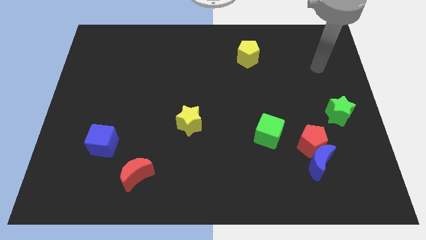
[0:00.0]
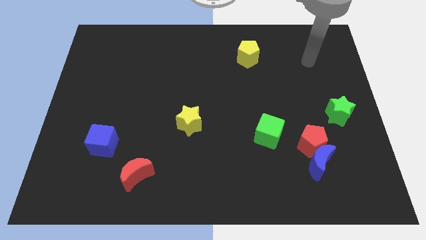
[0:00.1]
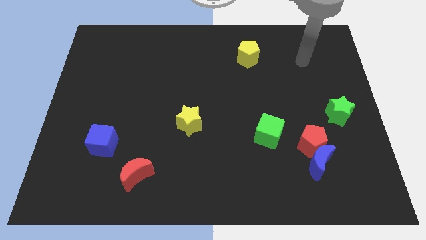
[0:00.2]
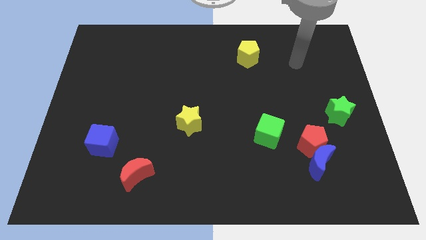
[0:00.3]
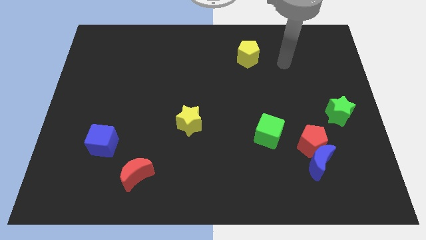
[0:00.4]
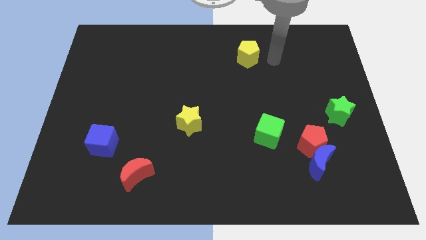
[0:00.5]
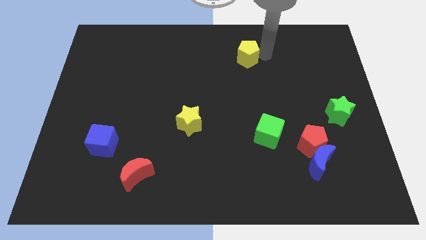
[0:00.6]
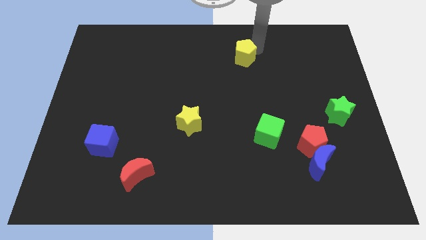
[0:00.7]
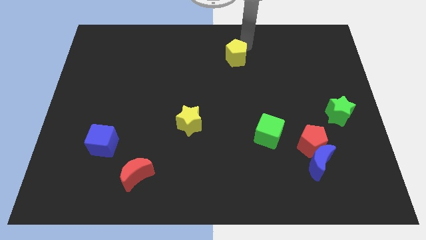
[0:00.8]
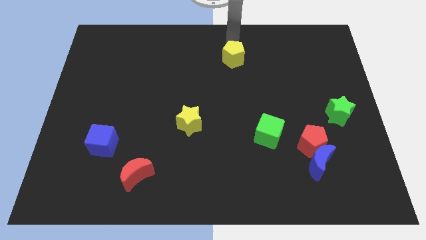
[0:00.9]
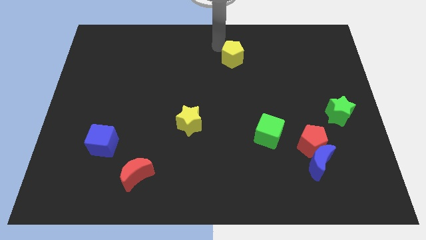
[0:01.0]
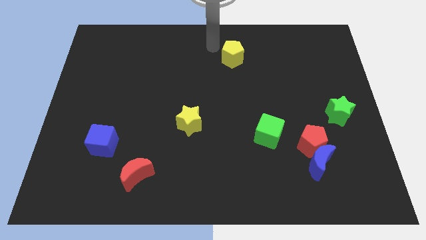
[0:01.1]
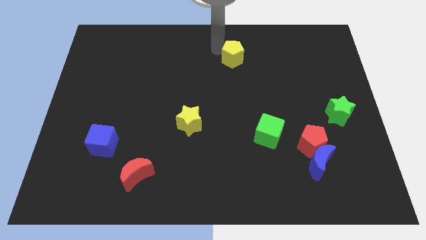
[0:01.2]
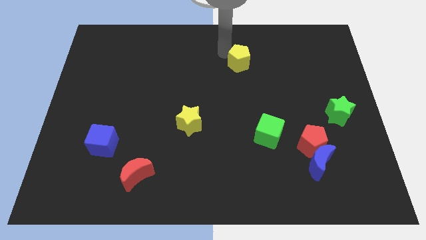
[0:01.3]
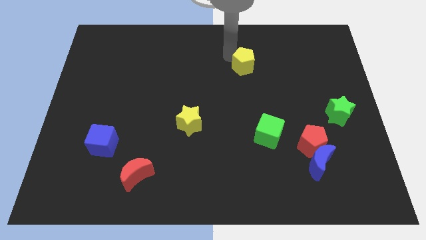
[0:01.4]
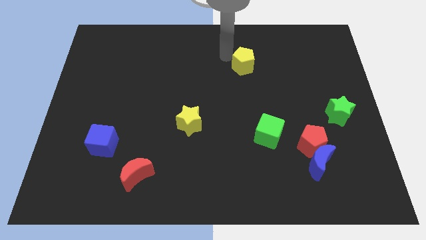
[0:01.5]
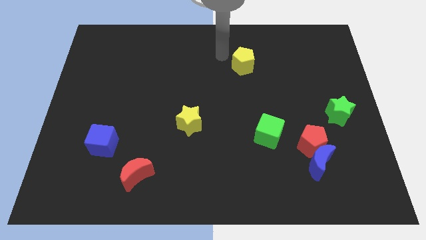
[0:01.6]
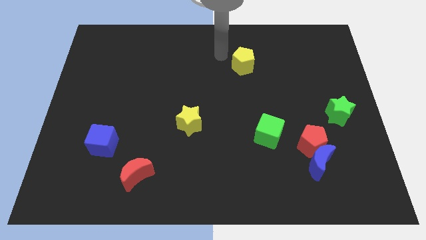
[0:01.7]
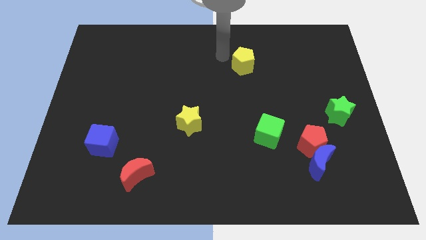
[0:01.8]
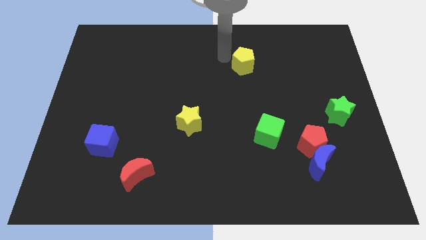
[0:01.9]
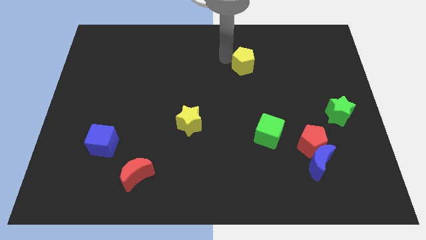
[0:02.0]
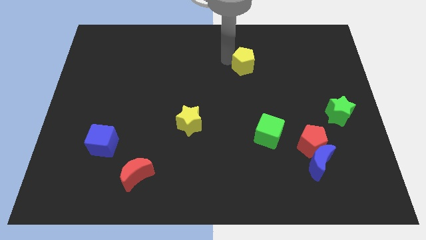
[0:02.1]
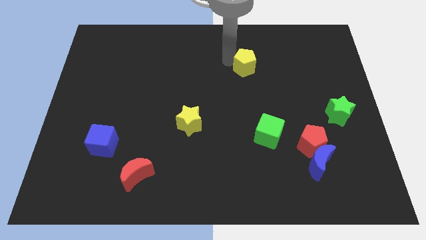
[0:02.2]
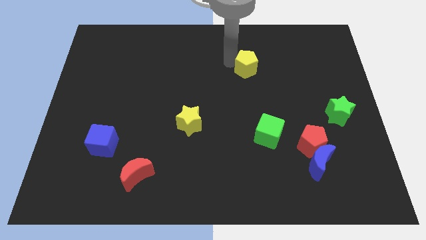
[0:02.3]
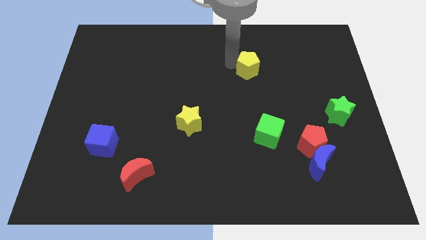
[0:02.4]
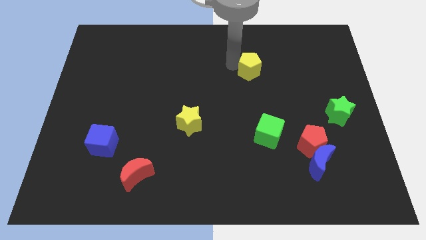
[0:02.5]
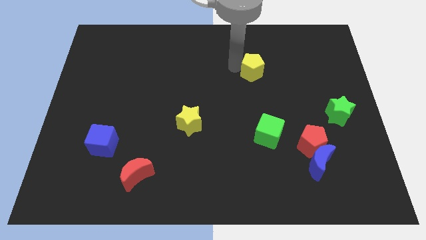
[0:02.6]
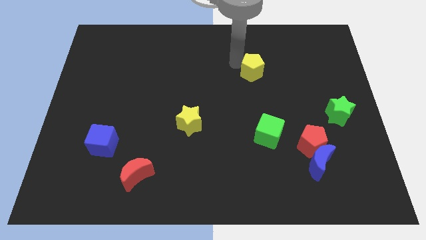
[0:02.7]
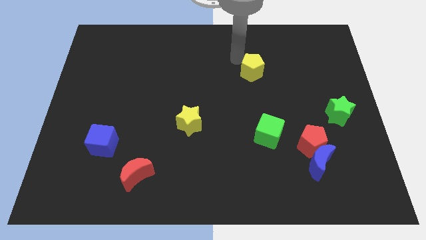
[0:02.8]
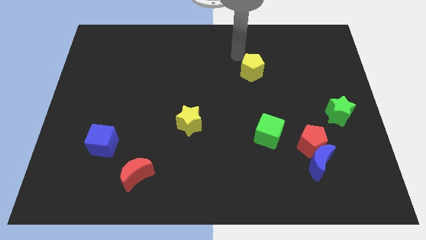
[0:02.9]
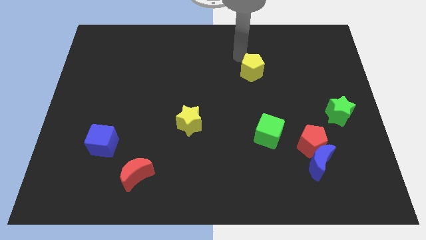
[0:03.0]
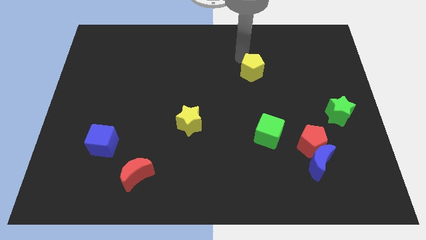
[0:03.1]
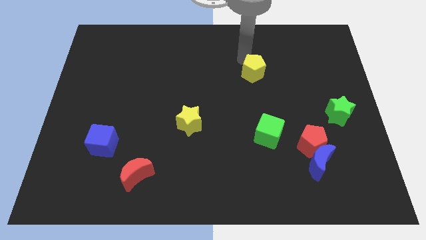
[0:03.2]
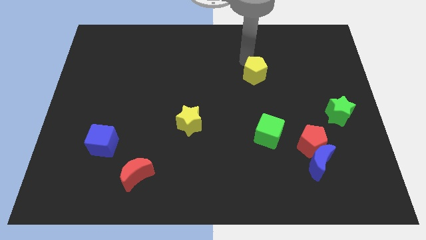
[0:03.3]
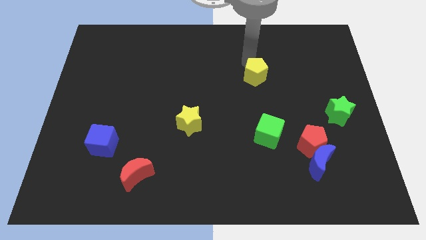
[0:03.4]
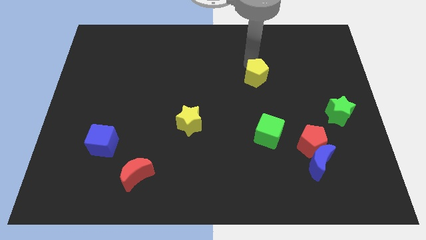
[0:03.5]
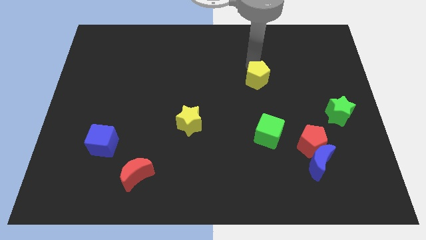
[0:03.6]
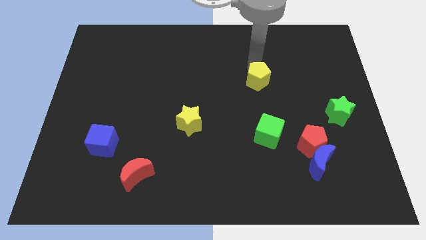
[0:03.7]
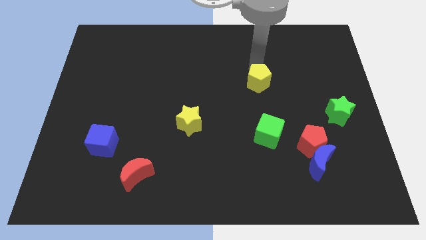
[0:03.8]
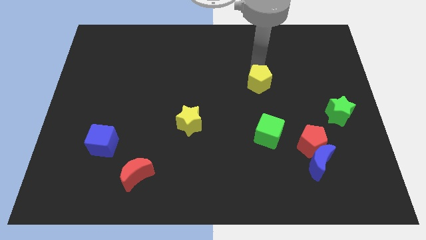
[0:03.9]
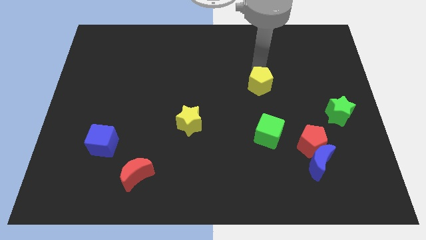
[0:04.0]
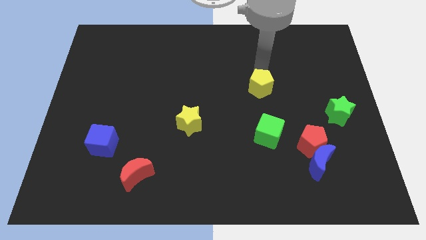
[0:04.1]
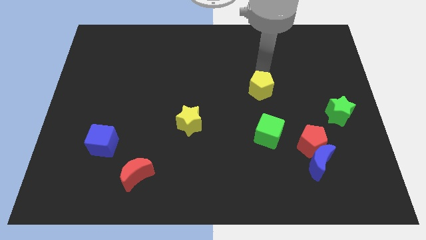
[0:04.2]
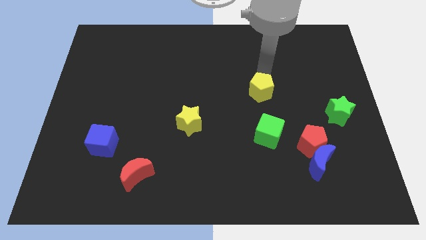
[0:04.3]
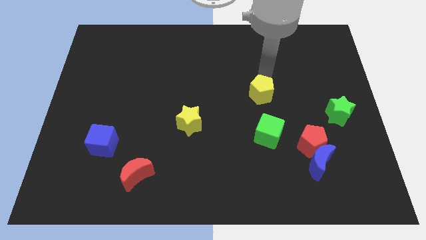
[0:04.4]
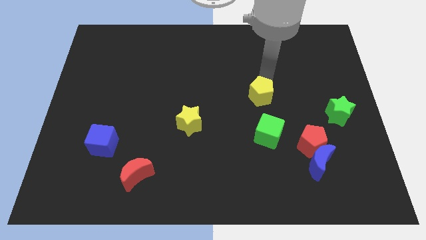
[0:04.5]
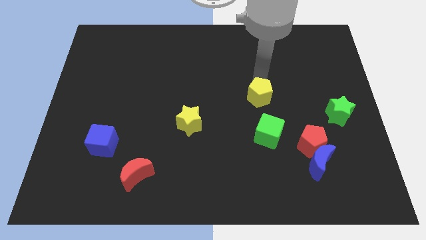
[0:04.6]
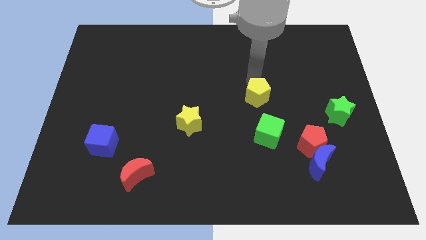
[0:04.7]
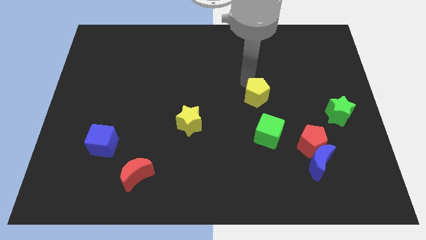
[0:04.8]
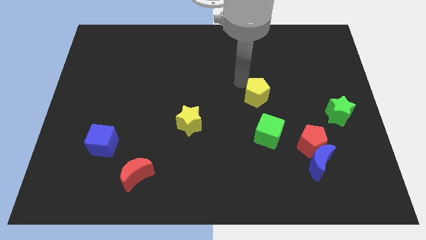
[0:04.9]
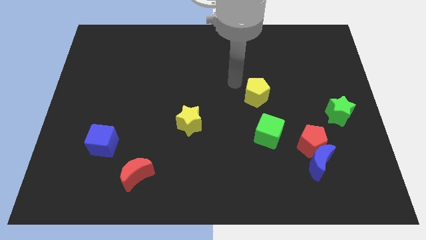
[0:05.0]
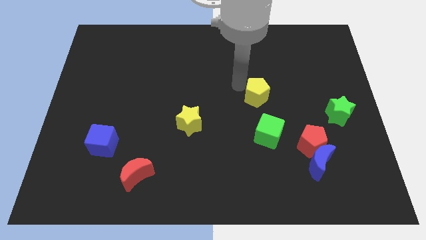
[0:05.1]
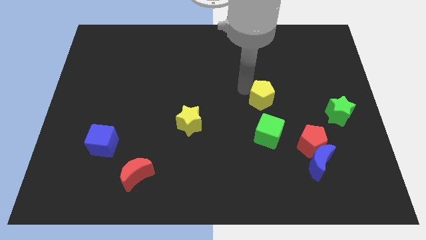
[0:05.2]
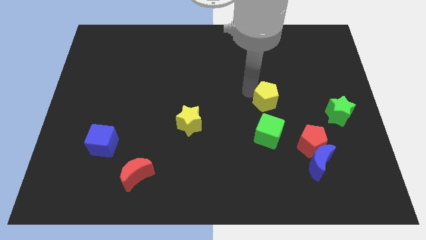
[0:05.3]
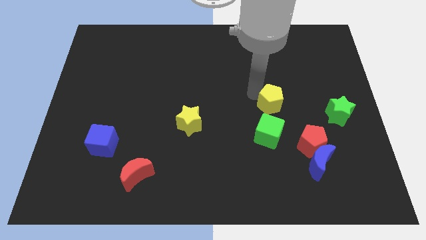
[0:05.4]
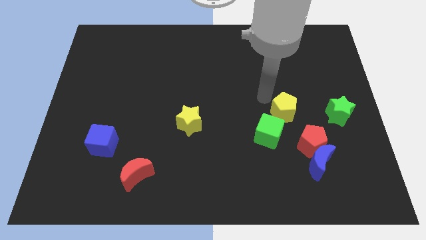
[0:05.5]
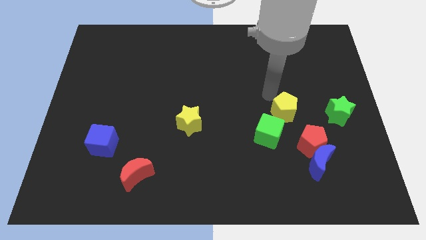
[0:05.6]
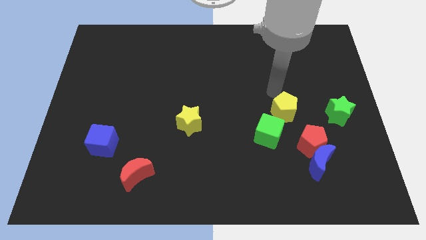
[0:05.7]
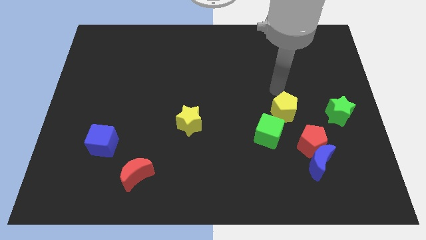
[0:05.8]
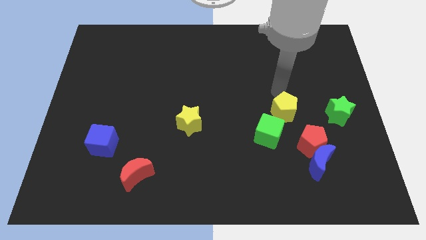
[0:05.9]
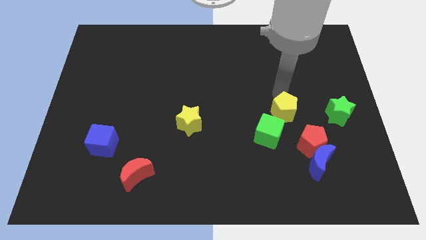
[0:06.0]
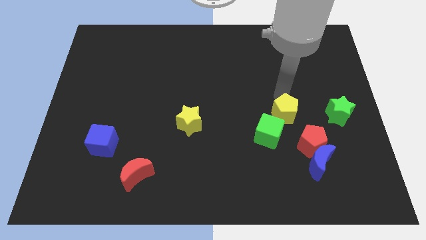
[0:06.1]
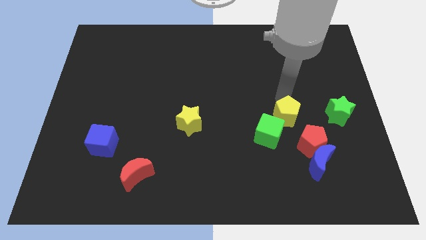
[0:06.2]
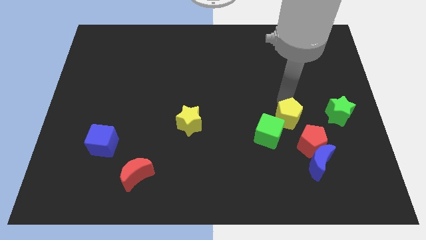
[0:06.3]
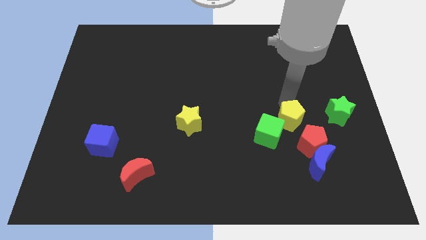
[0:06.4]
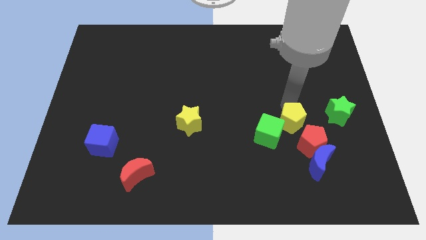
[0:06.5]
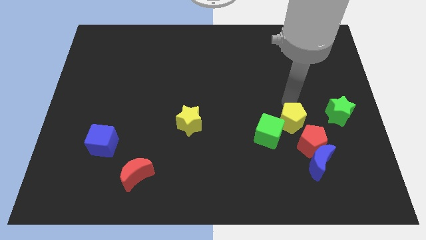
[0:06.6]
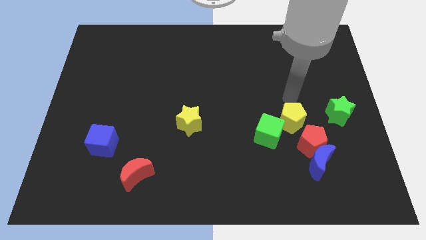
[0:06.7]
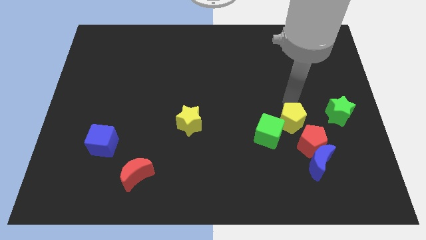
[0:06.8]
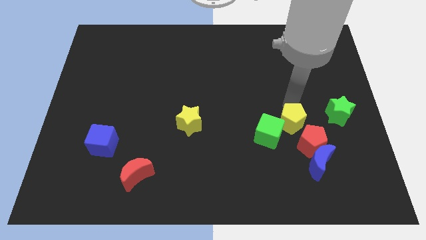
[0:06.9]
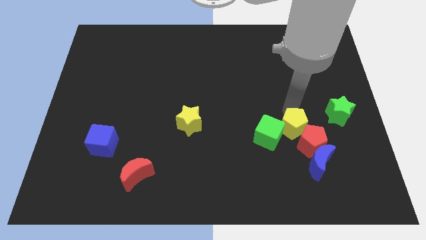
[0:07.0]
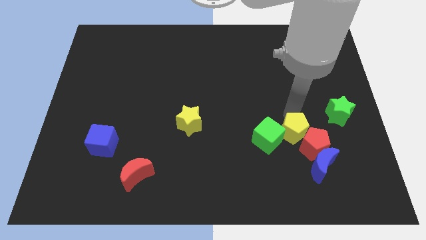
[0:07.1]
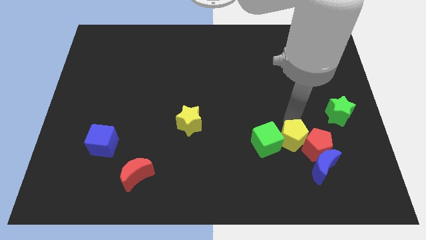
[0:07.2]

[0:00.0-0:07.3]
move the yellow pentagon to the bottom right side of the green cube
